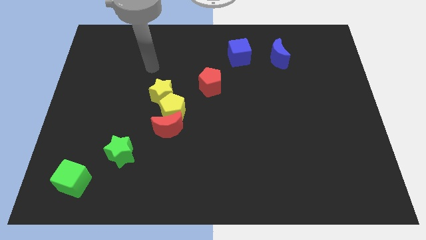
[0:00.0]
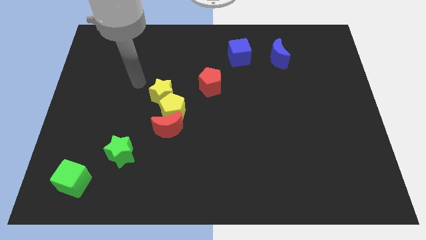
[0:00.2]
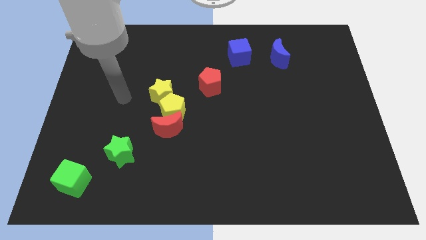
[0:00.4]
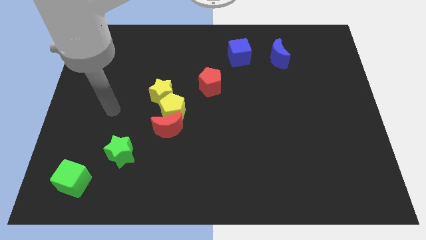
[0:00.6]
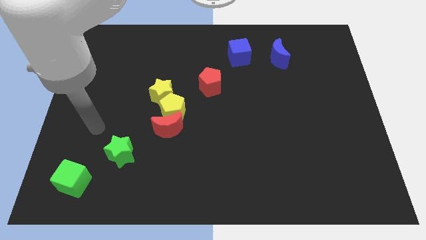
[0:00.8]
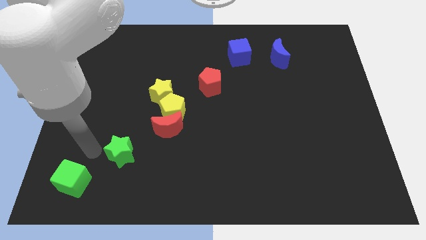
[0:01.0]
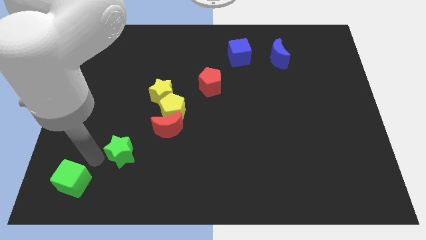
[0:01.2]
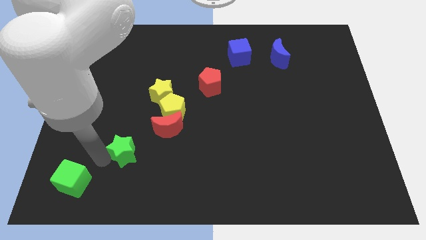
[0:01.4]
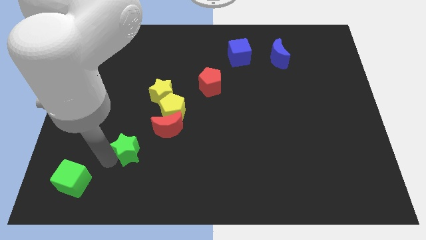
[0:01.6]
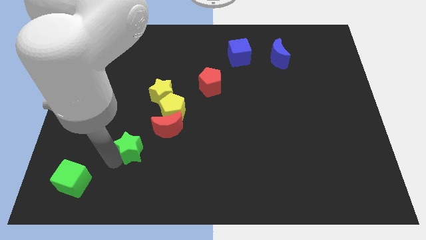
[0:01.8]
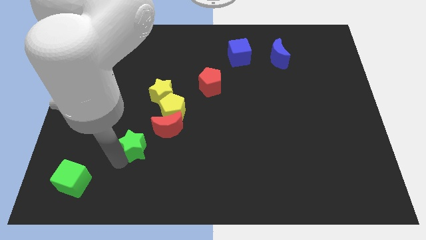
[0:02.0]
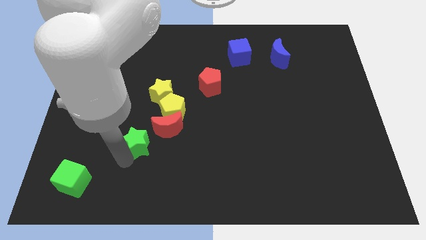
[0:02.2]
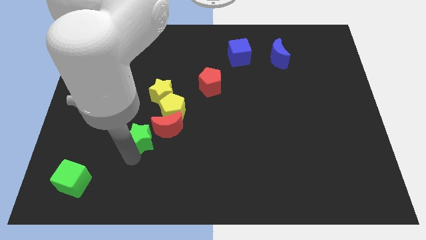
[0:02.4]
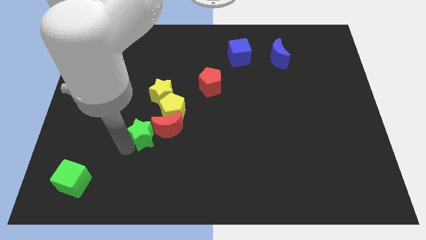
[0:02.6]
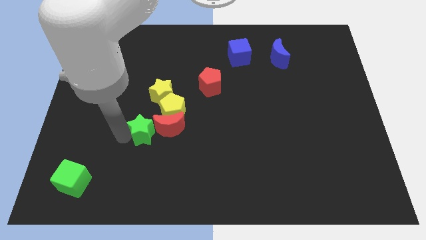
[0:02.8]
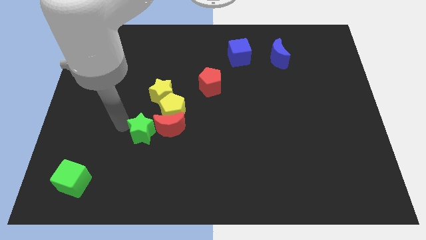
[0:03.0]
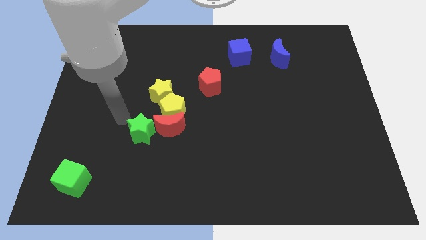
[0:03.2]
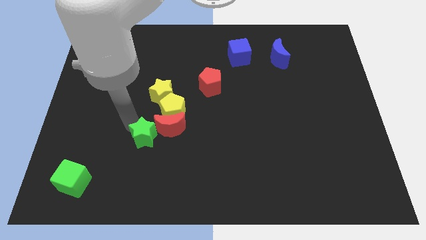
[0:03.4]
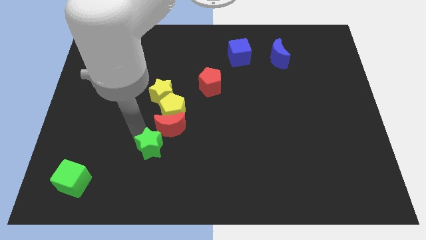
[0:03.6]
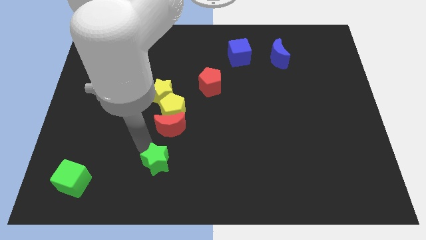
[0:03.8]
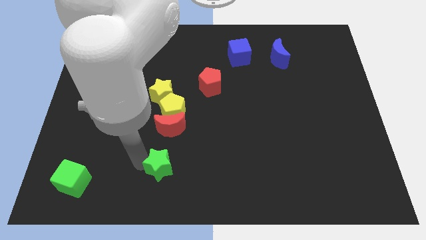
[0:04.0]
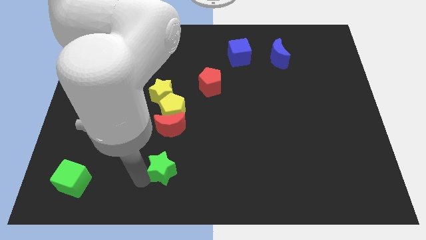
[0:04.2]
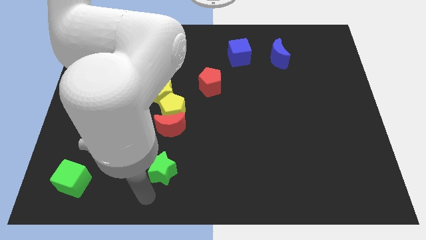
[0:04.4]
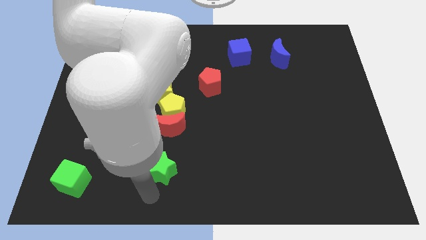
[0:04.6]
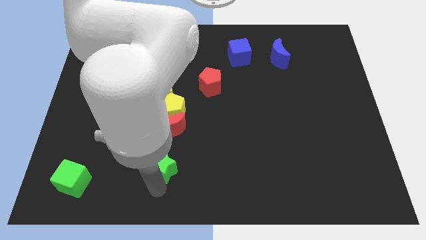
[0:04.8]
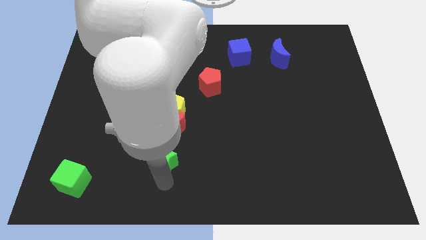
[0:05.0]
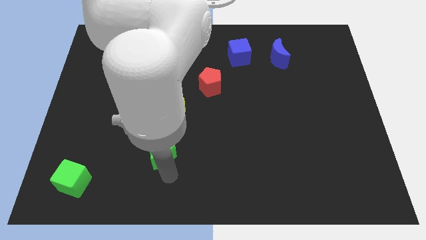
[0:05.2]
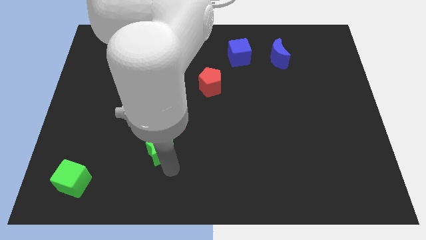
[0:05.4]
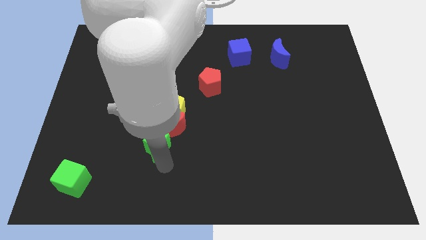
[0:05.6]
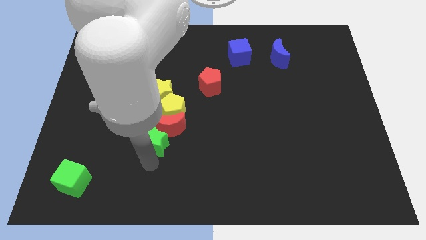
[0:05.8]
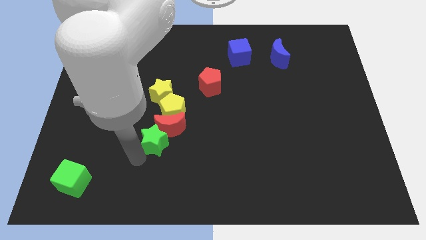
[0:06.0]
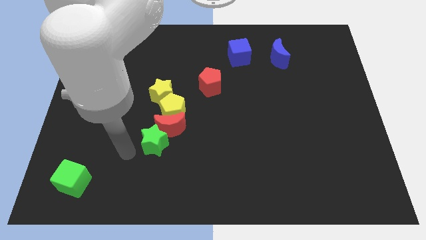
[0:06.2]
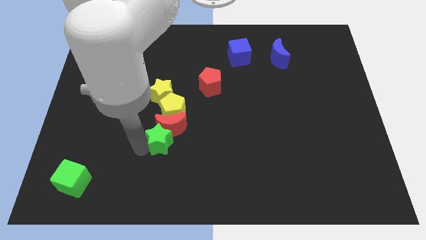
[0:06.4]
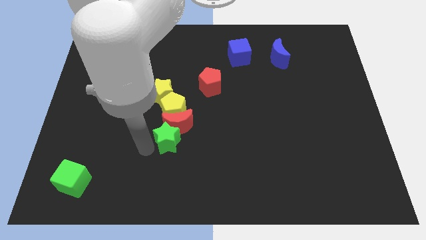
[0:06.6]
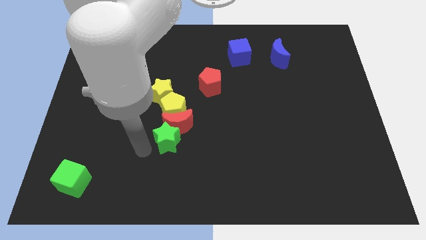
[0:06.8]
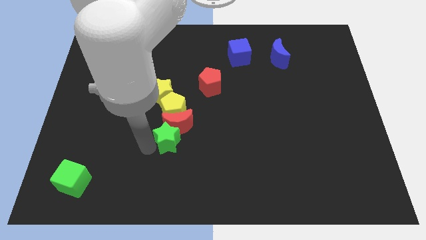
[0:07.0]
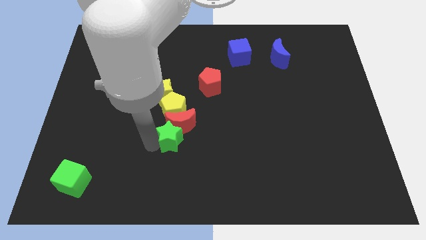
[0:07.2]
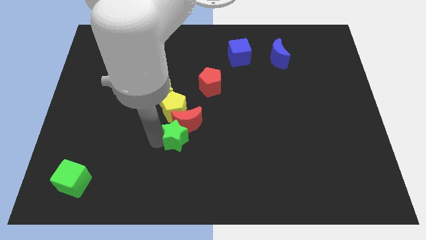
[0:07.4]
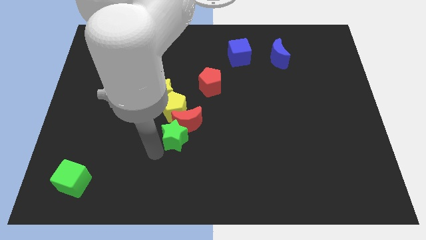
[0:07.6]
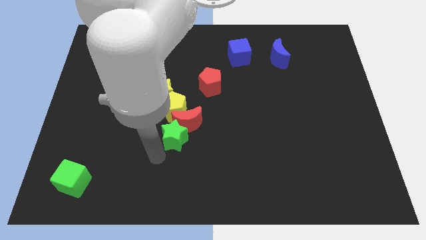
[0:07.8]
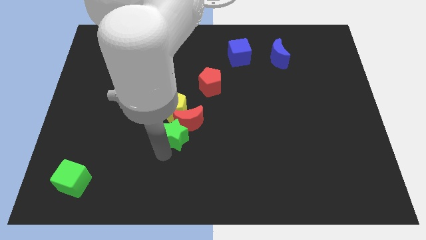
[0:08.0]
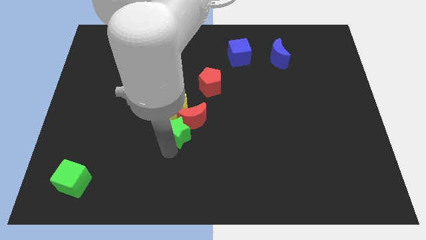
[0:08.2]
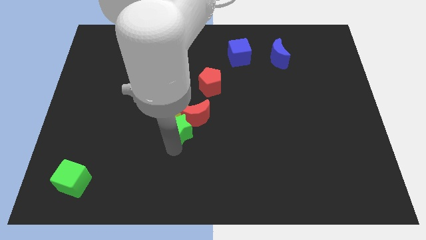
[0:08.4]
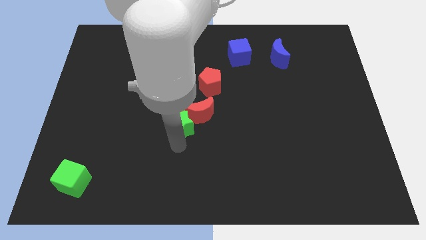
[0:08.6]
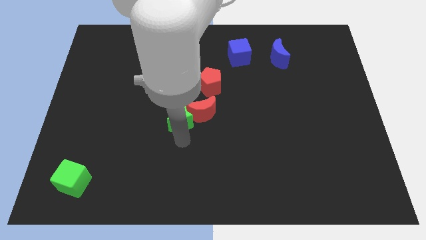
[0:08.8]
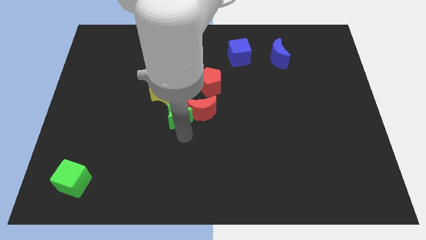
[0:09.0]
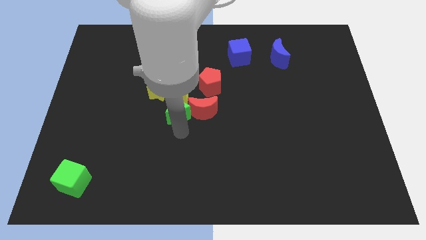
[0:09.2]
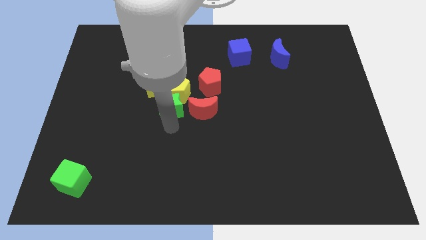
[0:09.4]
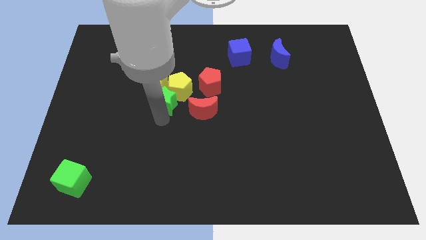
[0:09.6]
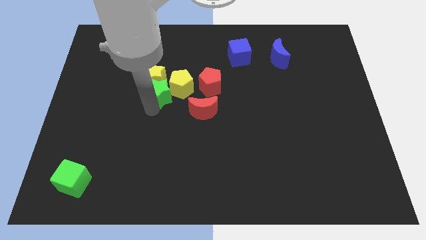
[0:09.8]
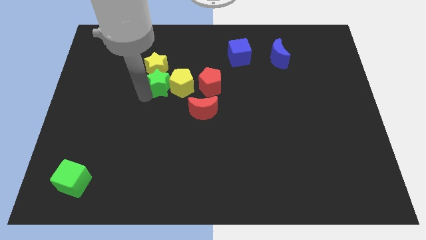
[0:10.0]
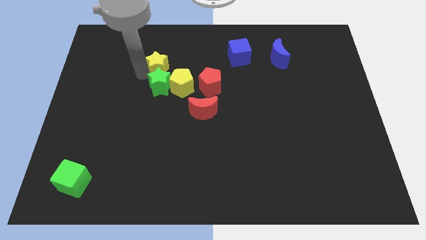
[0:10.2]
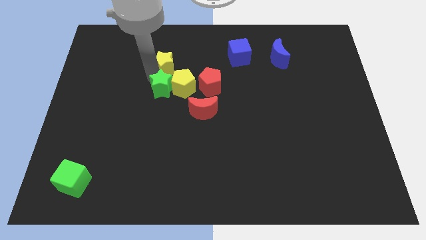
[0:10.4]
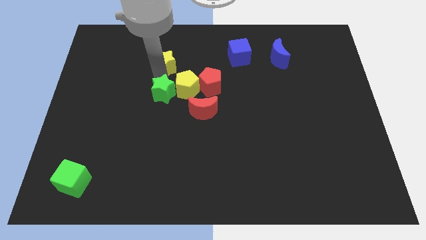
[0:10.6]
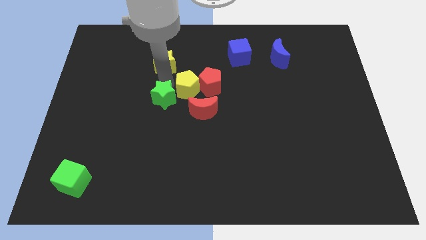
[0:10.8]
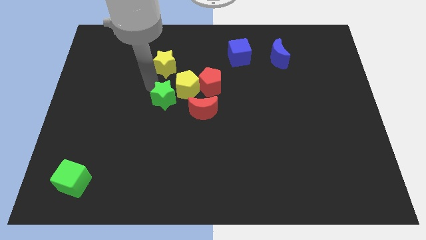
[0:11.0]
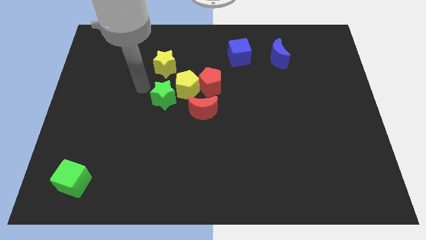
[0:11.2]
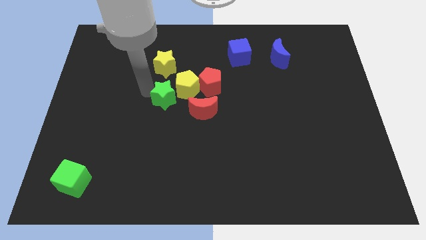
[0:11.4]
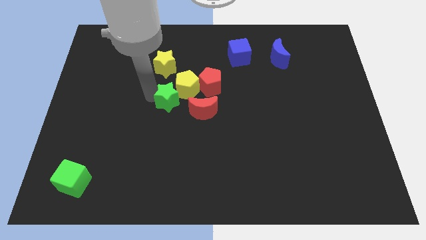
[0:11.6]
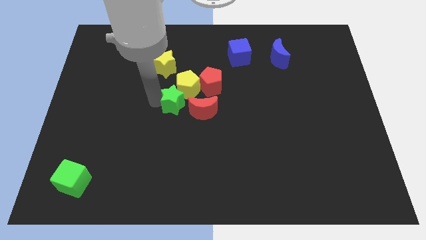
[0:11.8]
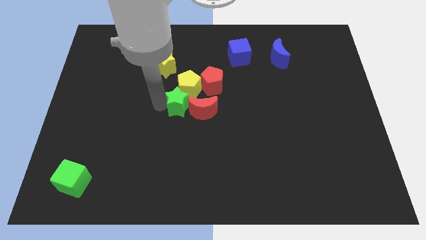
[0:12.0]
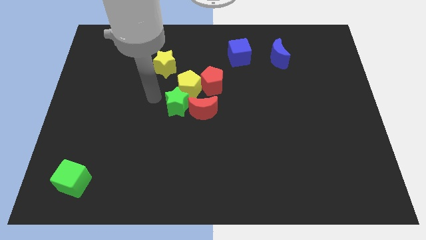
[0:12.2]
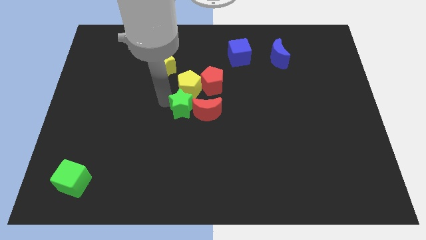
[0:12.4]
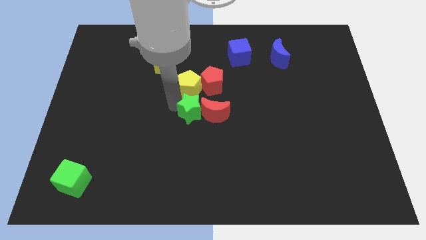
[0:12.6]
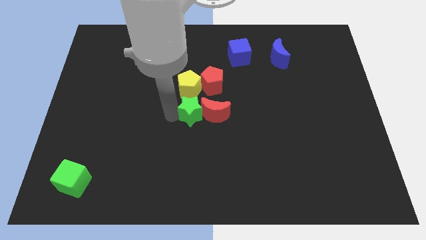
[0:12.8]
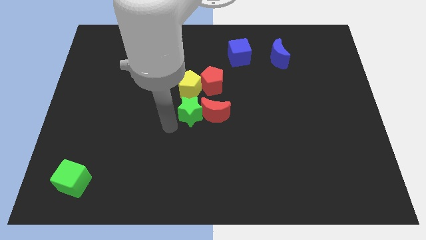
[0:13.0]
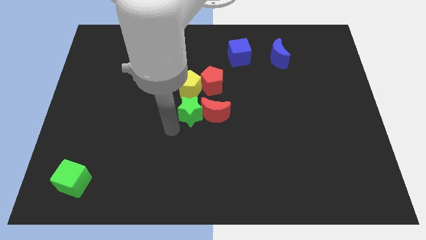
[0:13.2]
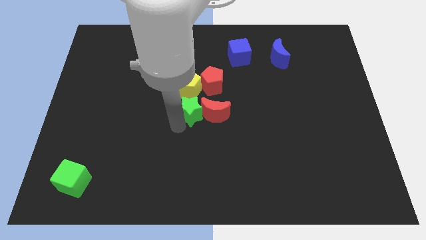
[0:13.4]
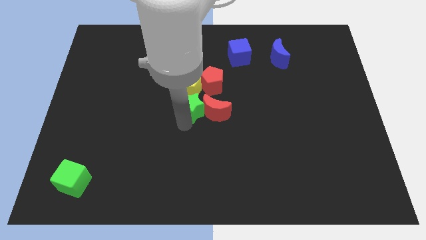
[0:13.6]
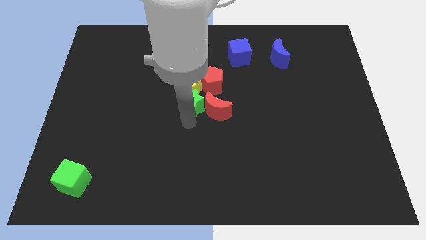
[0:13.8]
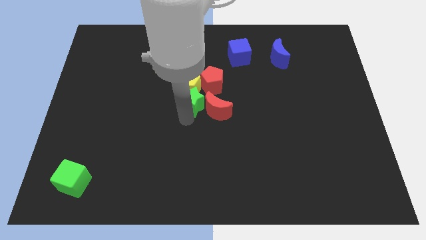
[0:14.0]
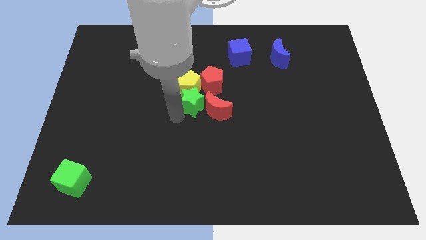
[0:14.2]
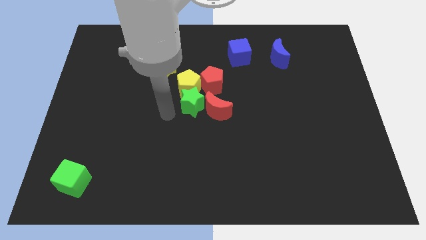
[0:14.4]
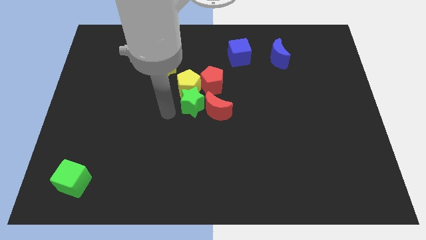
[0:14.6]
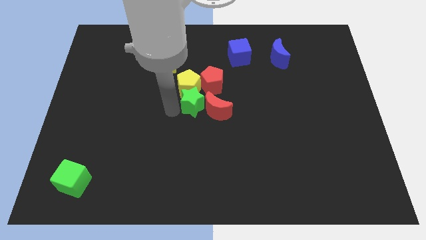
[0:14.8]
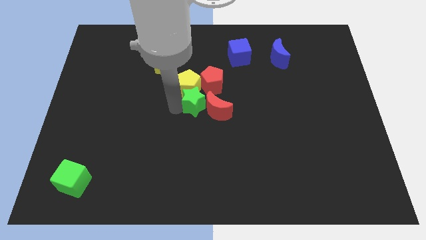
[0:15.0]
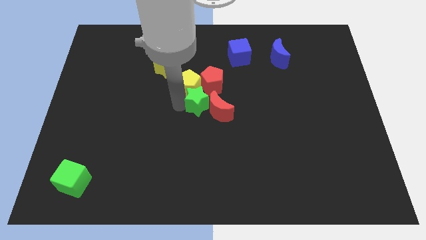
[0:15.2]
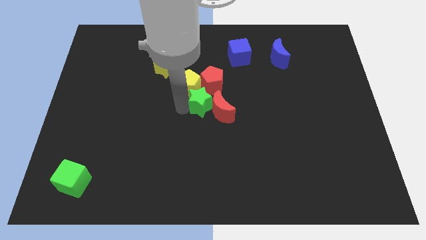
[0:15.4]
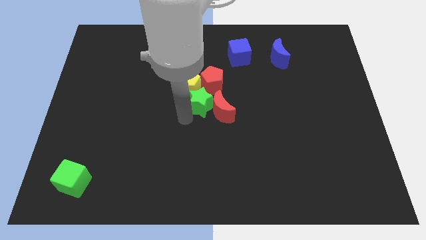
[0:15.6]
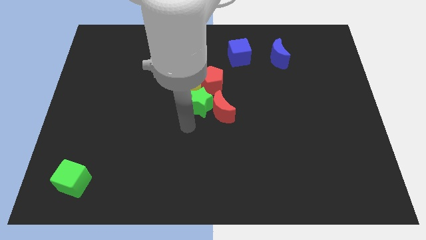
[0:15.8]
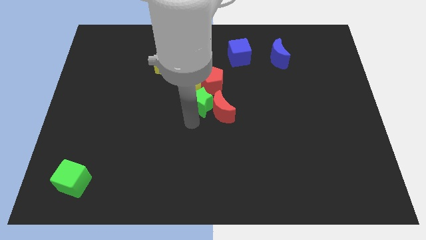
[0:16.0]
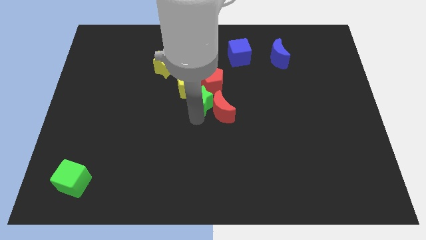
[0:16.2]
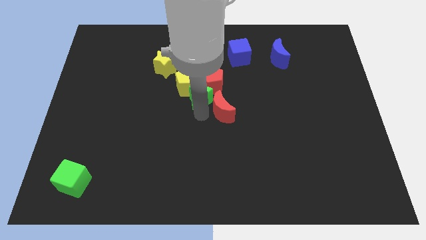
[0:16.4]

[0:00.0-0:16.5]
put the green star close to the red pentagon
